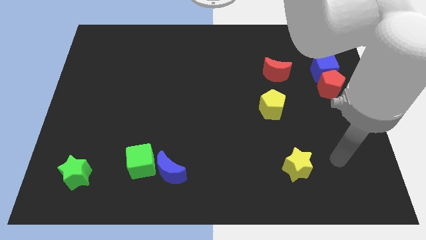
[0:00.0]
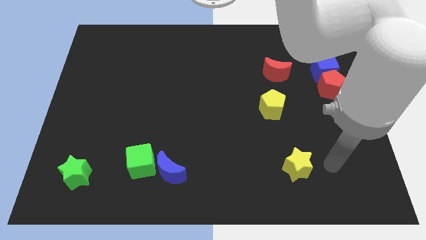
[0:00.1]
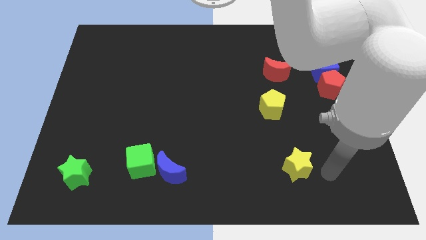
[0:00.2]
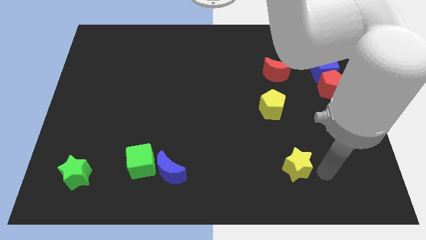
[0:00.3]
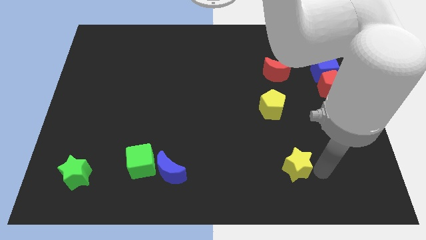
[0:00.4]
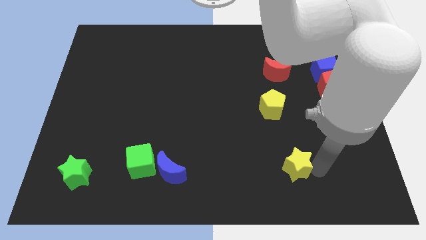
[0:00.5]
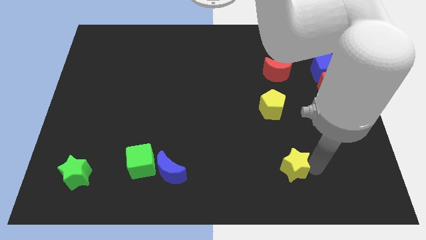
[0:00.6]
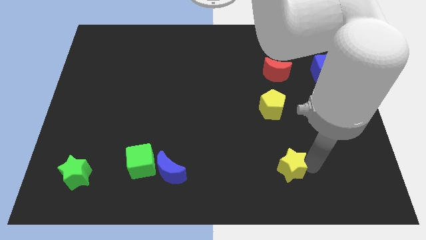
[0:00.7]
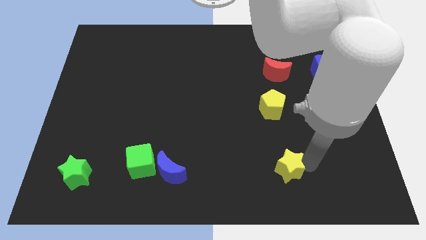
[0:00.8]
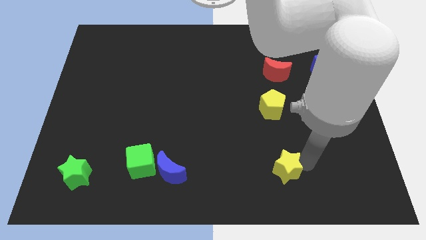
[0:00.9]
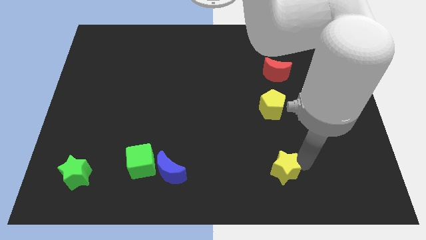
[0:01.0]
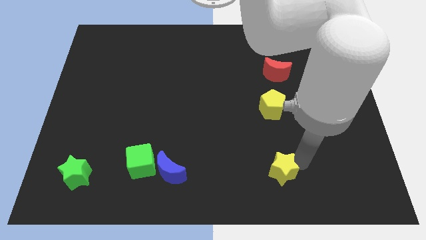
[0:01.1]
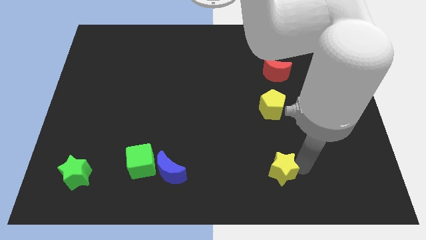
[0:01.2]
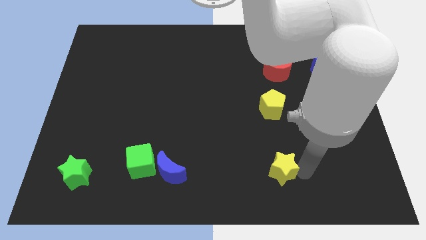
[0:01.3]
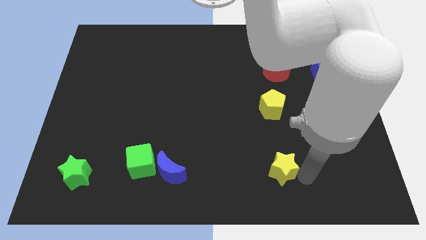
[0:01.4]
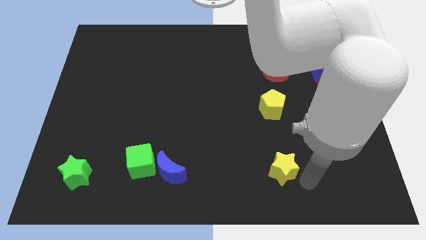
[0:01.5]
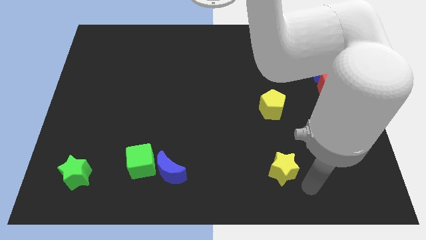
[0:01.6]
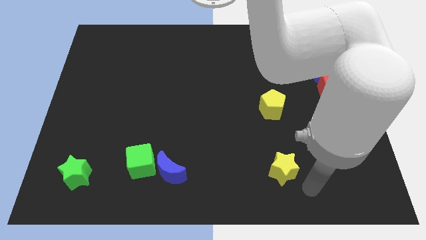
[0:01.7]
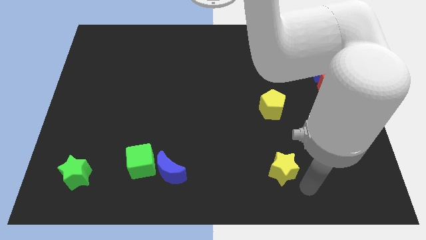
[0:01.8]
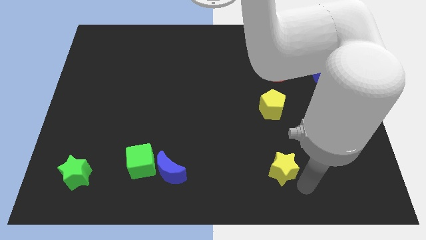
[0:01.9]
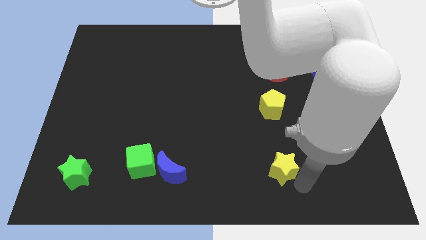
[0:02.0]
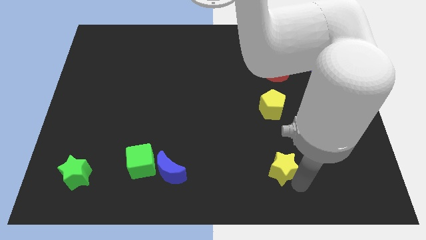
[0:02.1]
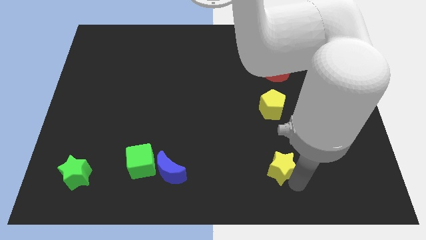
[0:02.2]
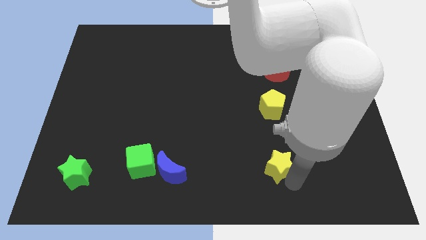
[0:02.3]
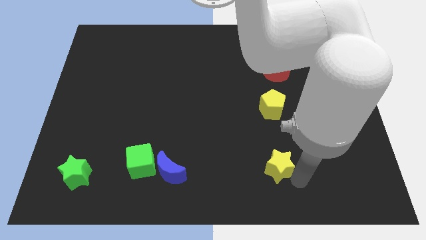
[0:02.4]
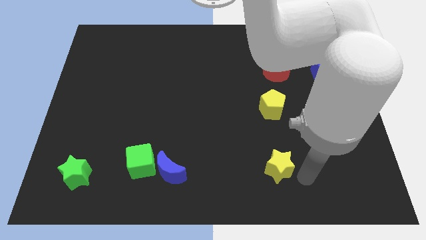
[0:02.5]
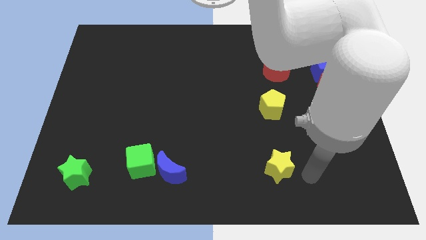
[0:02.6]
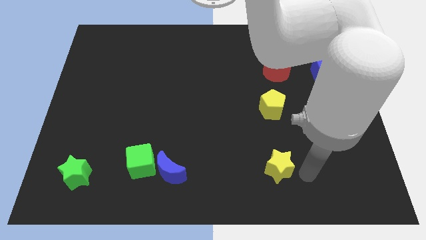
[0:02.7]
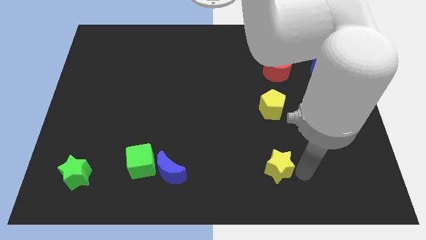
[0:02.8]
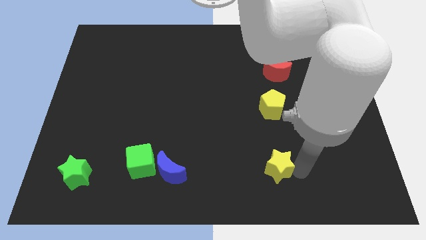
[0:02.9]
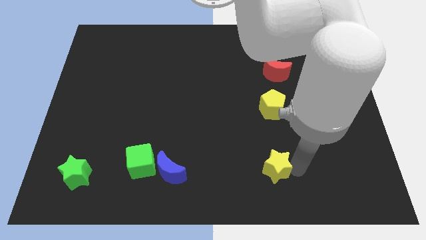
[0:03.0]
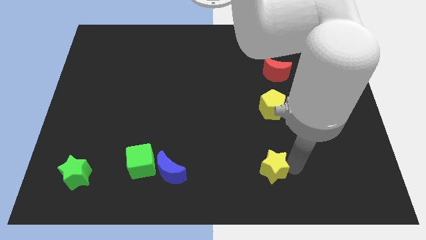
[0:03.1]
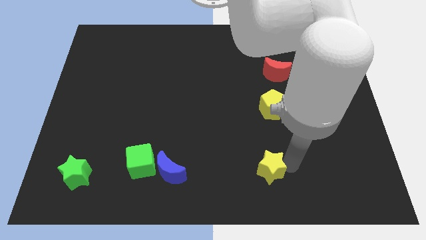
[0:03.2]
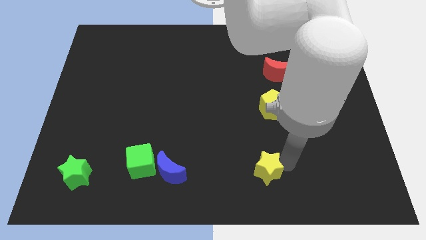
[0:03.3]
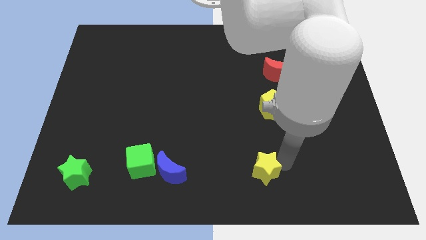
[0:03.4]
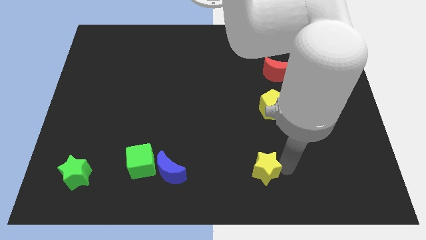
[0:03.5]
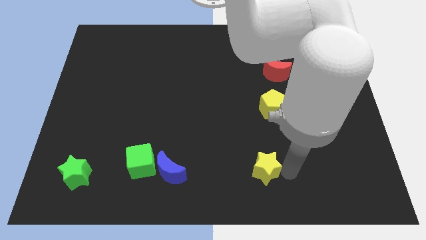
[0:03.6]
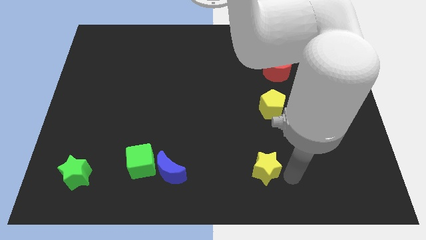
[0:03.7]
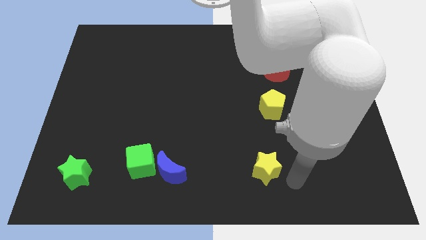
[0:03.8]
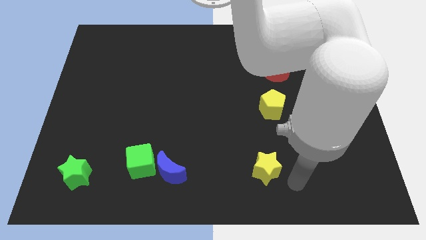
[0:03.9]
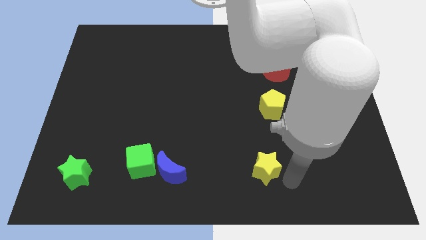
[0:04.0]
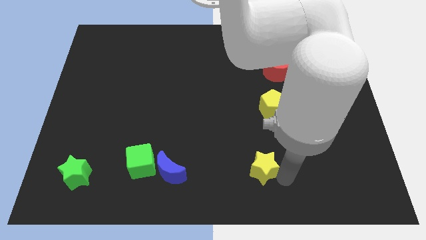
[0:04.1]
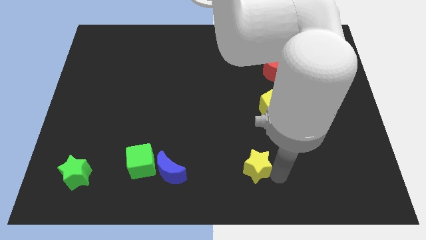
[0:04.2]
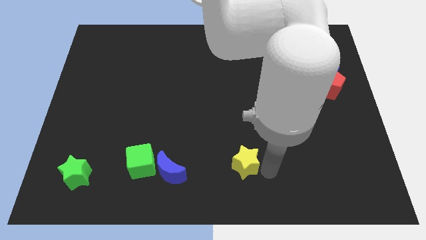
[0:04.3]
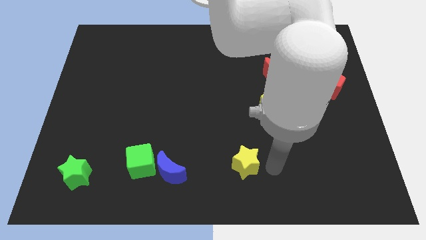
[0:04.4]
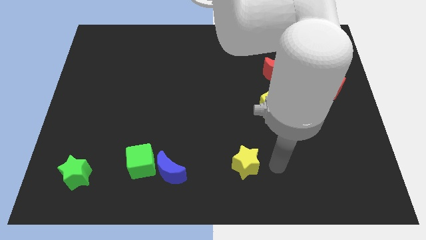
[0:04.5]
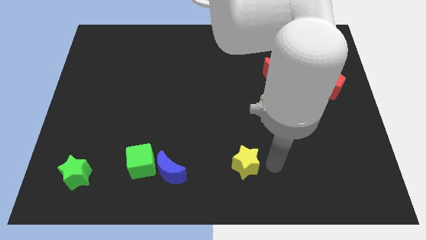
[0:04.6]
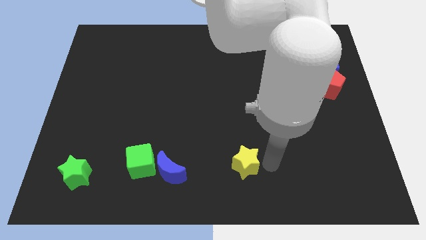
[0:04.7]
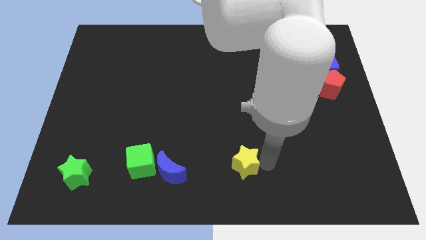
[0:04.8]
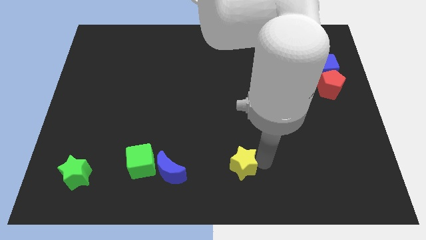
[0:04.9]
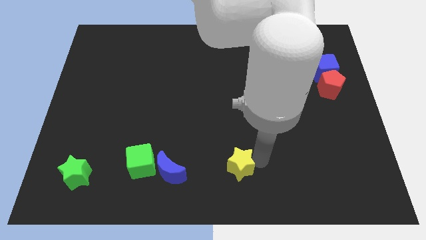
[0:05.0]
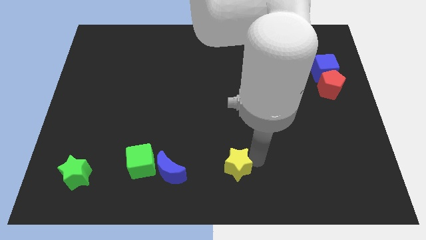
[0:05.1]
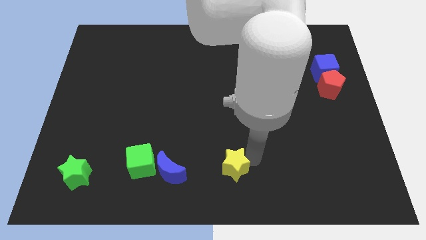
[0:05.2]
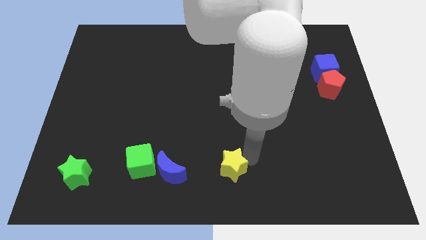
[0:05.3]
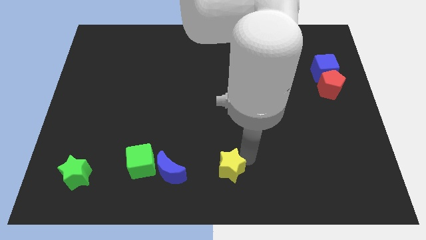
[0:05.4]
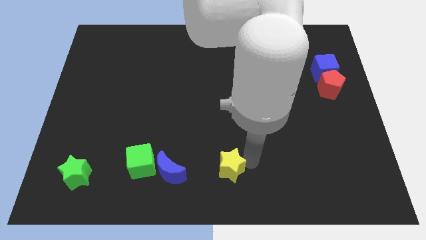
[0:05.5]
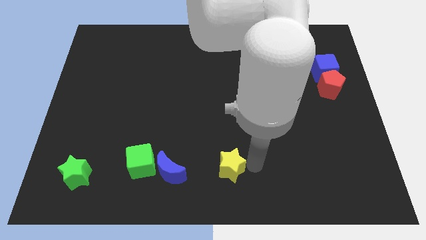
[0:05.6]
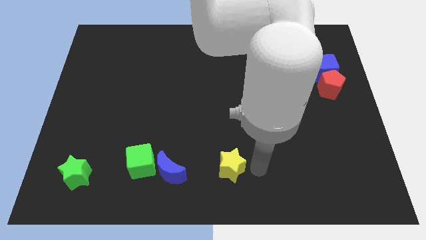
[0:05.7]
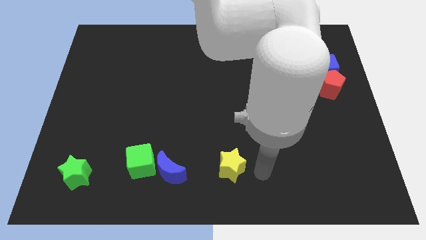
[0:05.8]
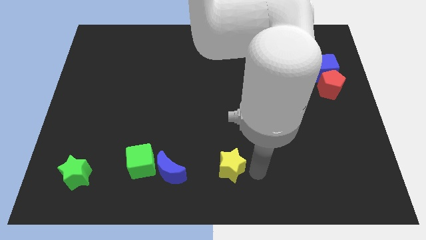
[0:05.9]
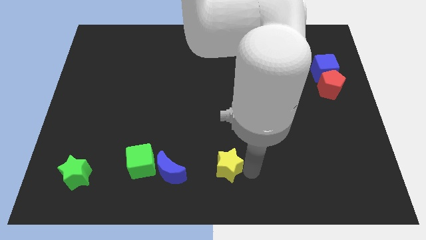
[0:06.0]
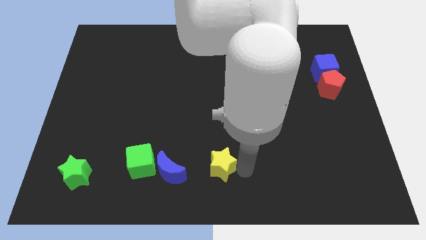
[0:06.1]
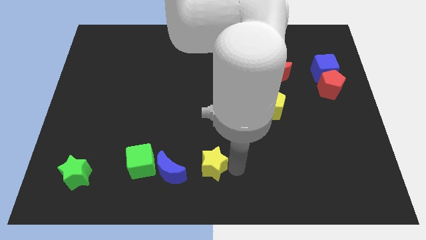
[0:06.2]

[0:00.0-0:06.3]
move the yellow star right of the green cube
